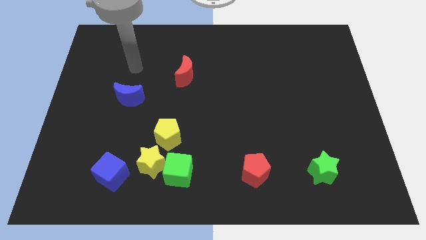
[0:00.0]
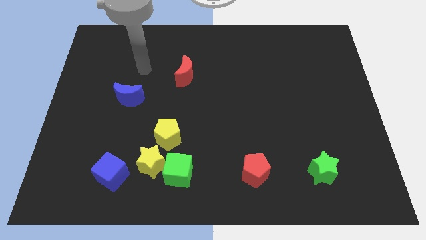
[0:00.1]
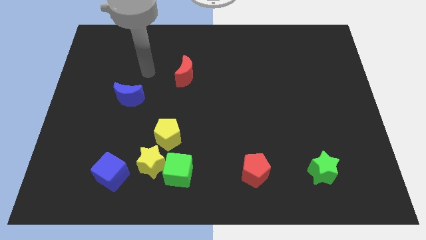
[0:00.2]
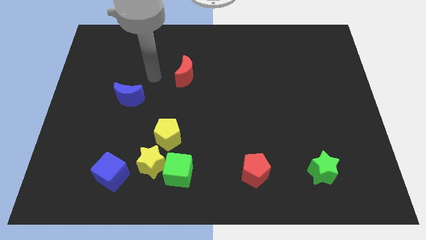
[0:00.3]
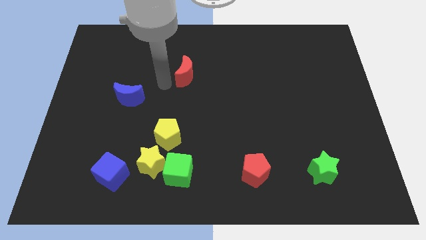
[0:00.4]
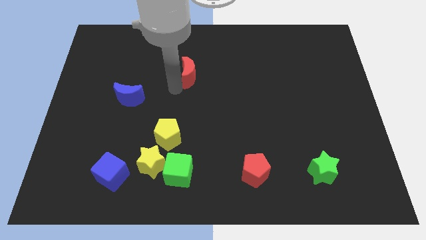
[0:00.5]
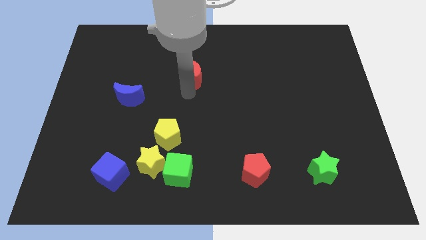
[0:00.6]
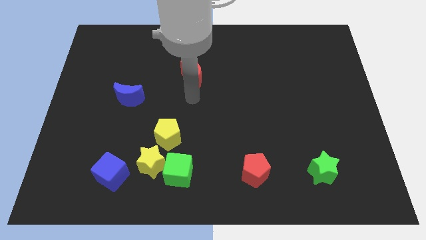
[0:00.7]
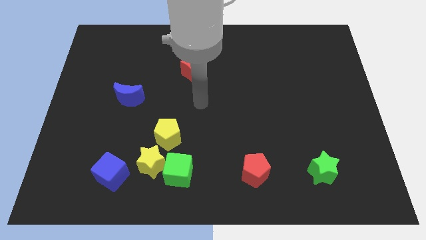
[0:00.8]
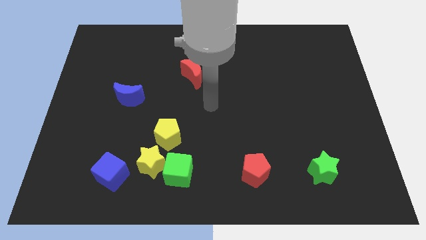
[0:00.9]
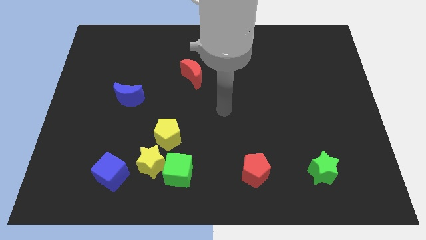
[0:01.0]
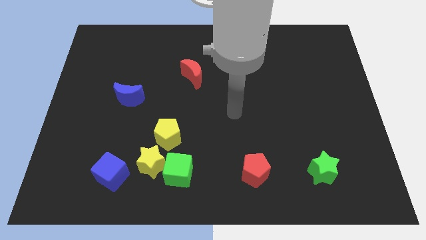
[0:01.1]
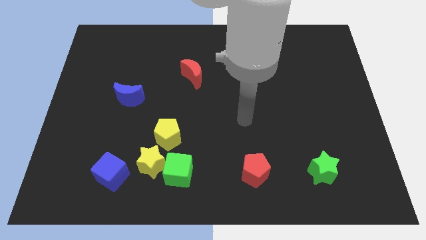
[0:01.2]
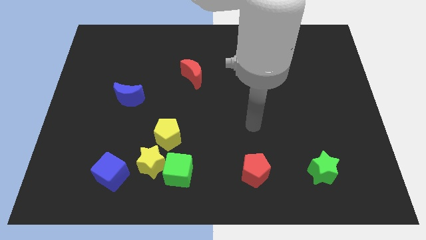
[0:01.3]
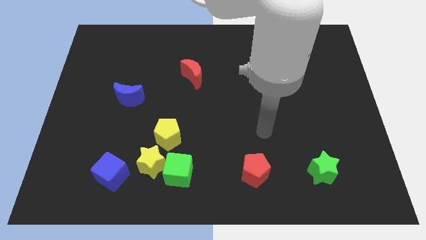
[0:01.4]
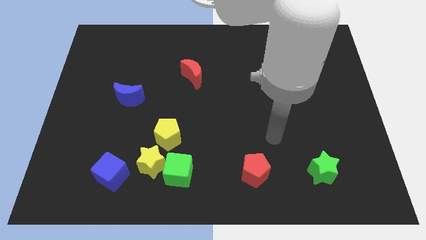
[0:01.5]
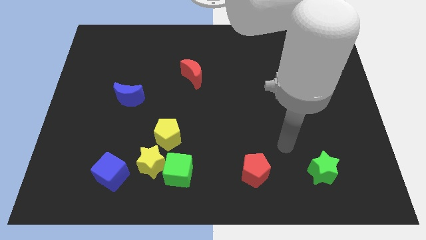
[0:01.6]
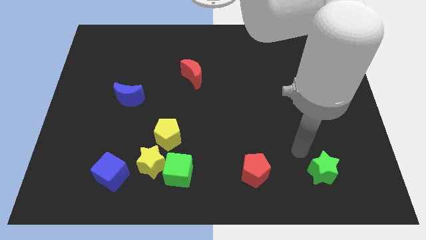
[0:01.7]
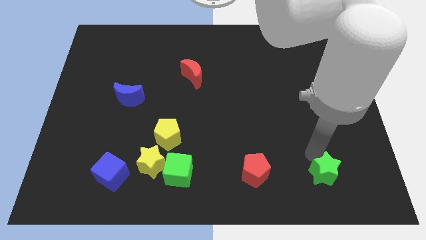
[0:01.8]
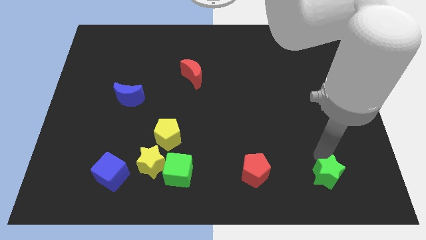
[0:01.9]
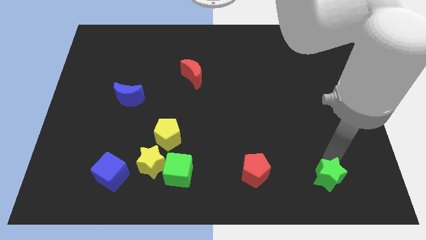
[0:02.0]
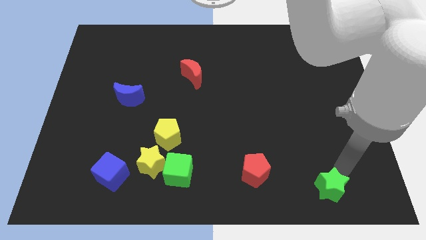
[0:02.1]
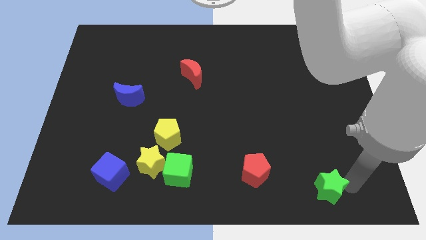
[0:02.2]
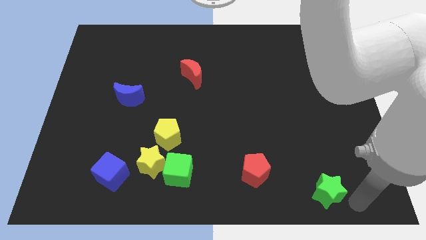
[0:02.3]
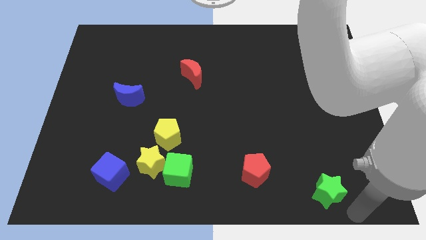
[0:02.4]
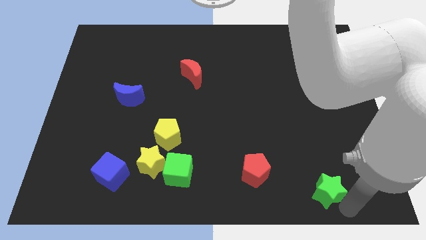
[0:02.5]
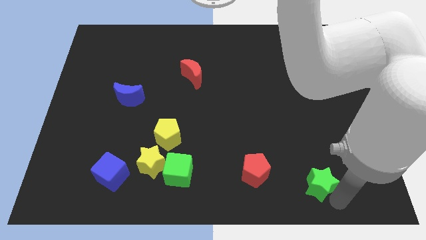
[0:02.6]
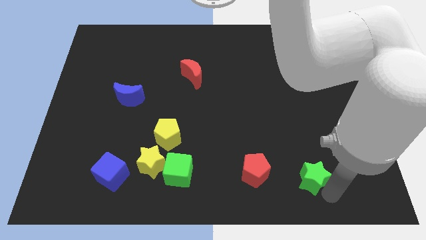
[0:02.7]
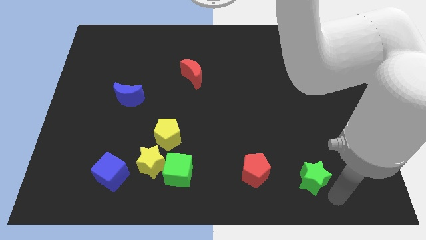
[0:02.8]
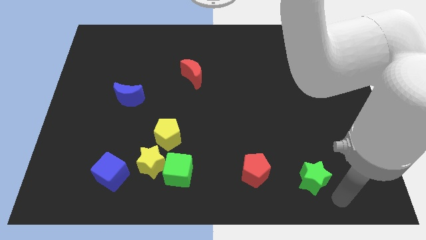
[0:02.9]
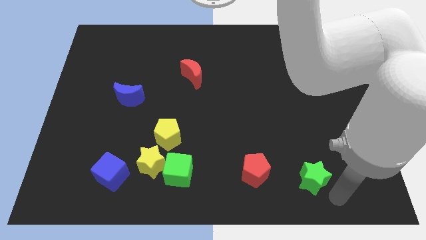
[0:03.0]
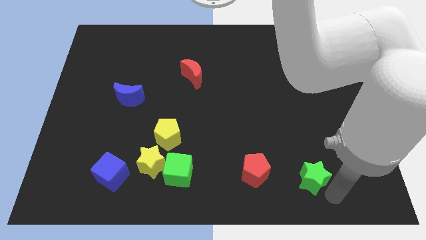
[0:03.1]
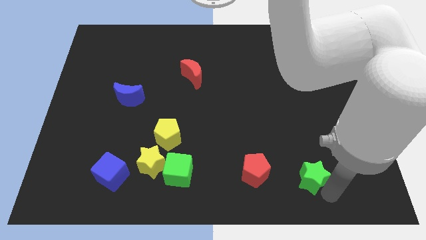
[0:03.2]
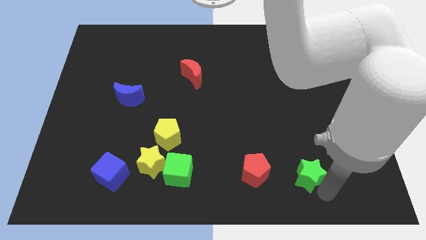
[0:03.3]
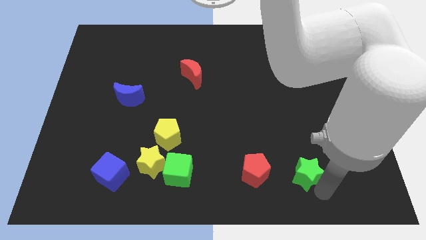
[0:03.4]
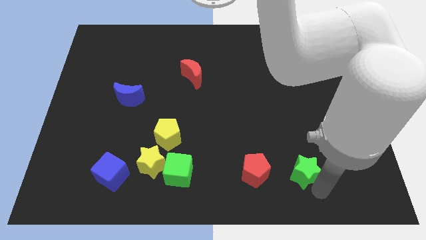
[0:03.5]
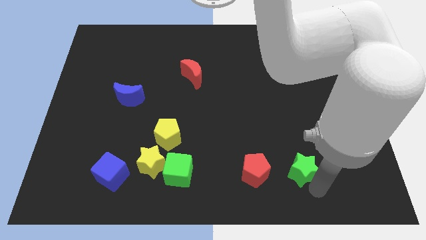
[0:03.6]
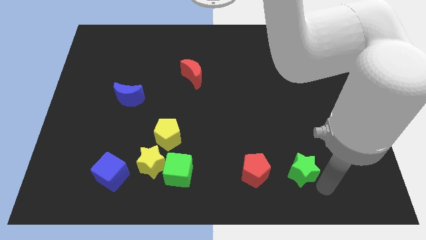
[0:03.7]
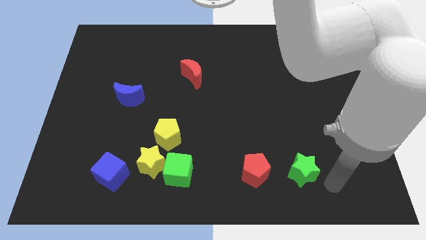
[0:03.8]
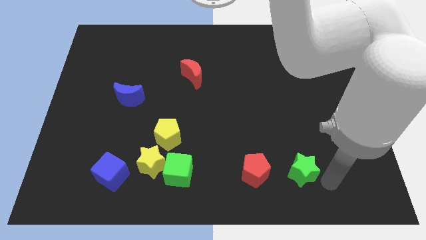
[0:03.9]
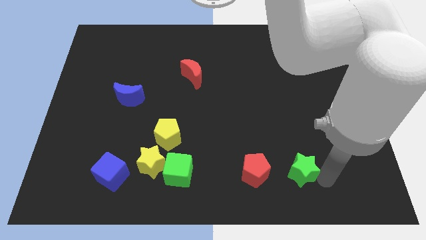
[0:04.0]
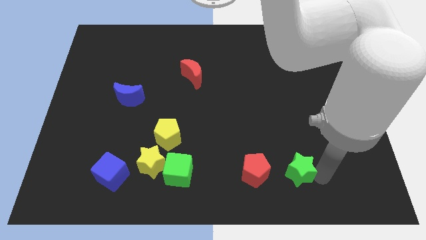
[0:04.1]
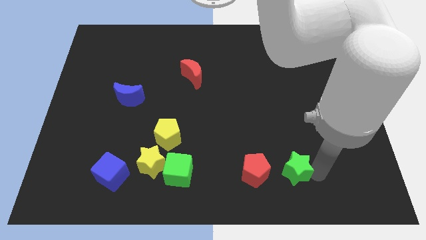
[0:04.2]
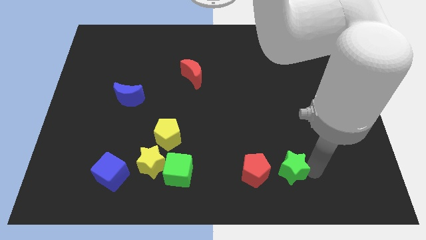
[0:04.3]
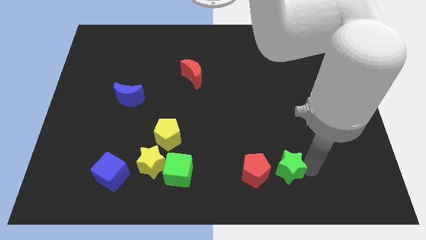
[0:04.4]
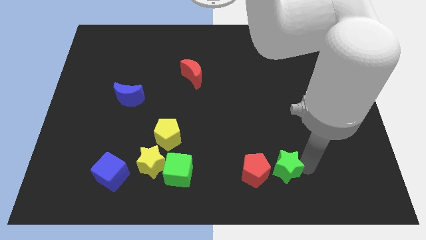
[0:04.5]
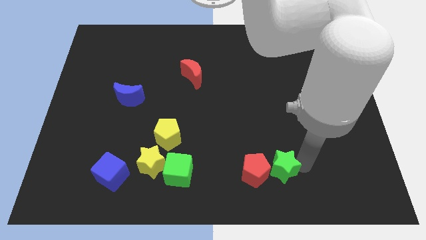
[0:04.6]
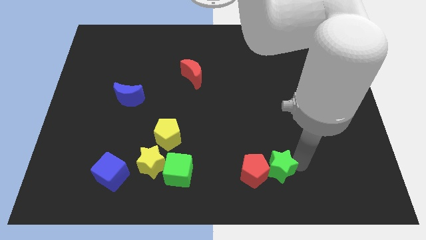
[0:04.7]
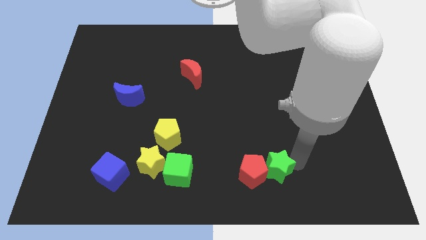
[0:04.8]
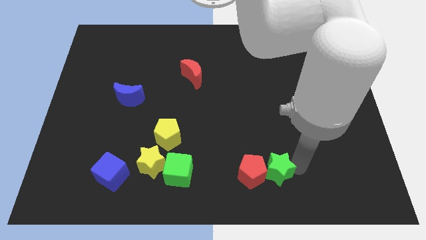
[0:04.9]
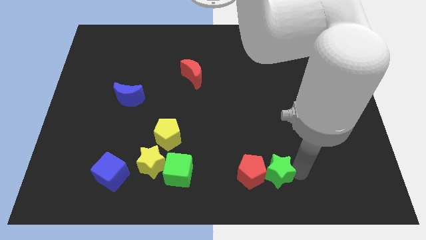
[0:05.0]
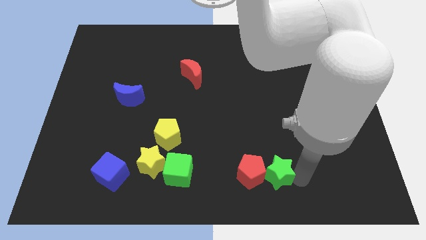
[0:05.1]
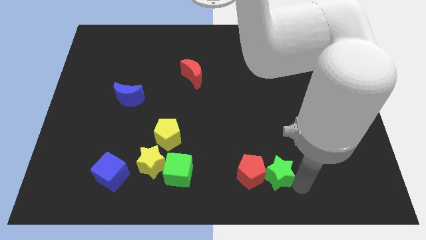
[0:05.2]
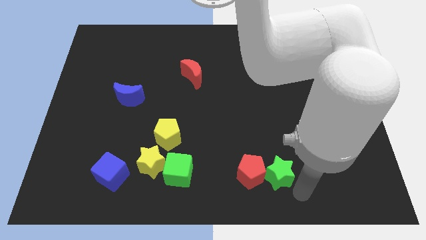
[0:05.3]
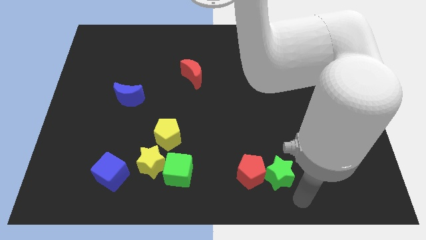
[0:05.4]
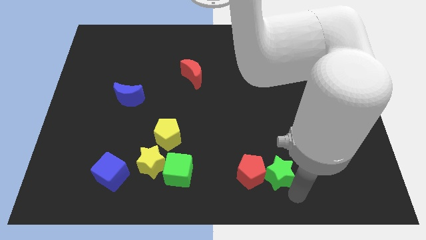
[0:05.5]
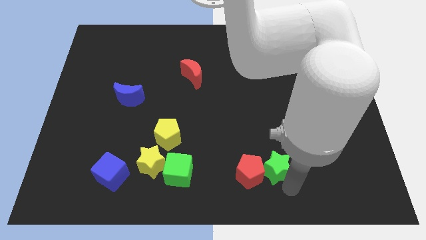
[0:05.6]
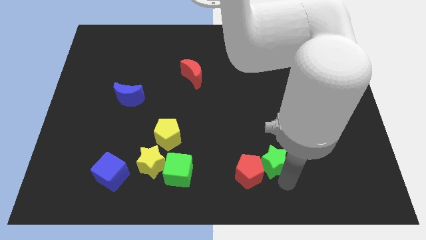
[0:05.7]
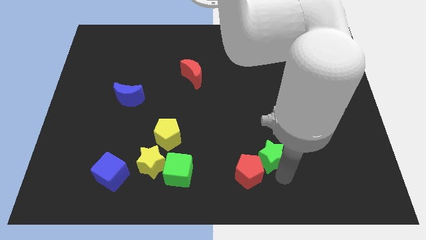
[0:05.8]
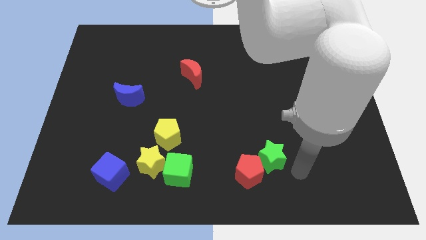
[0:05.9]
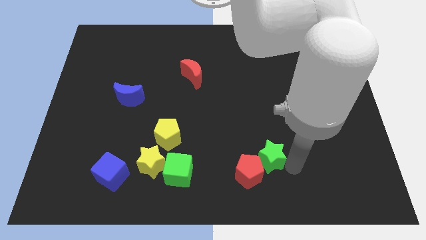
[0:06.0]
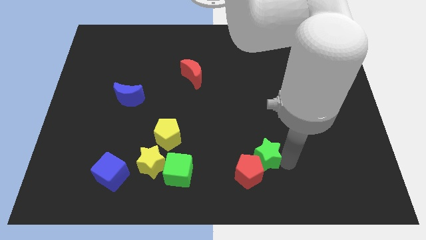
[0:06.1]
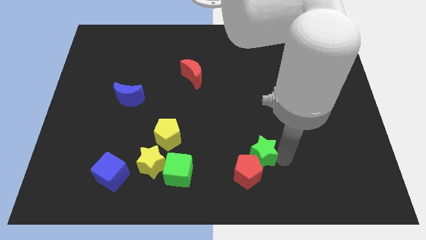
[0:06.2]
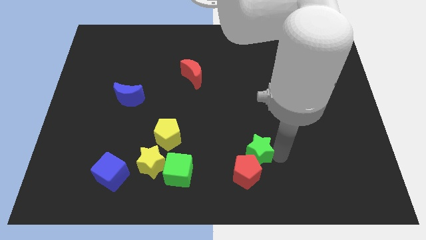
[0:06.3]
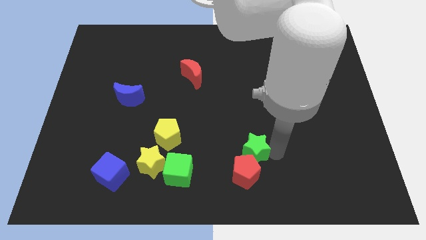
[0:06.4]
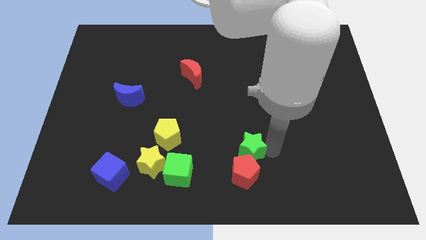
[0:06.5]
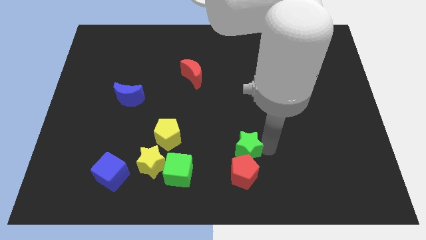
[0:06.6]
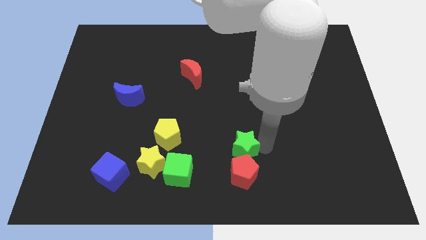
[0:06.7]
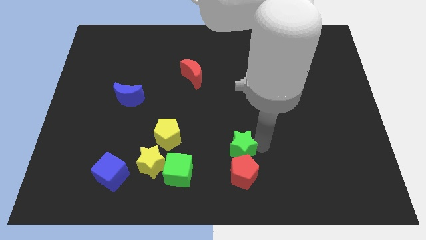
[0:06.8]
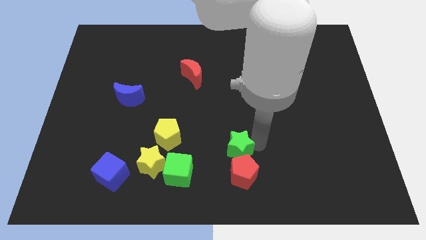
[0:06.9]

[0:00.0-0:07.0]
slide the green star just right of the yellow pentagon
